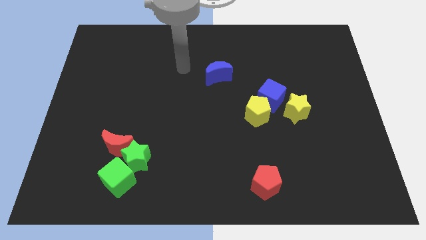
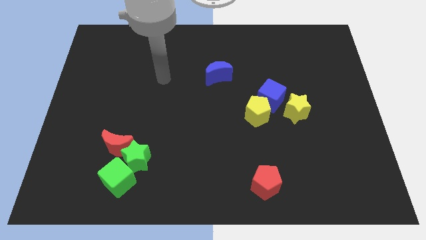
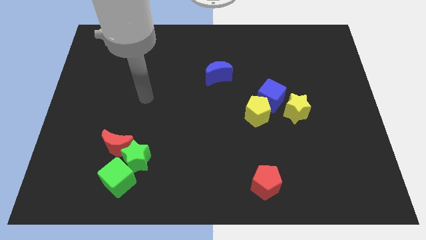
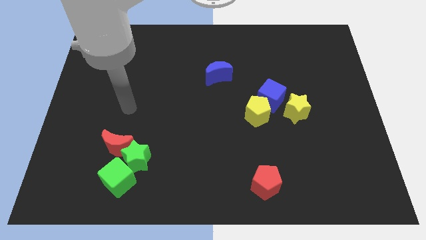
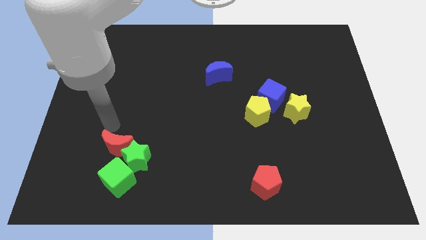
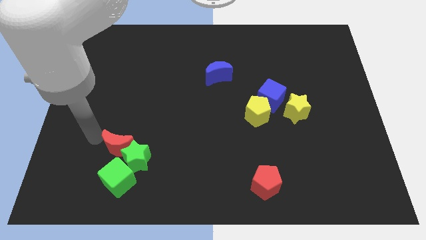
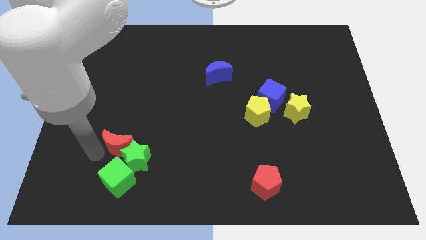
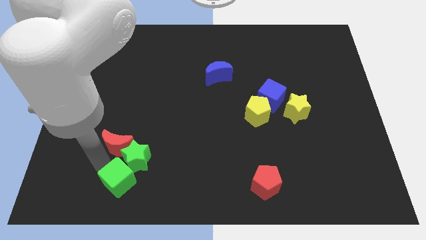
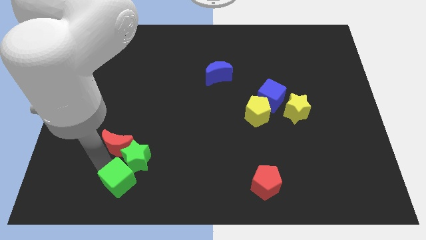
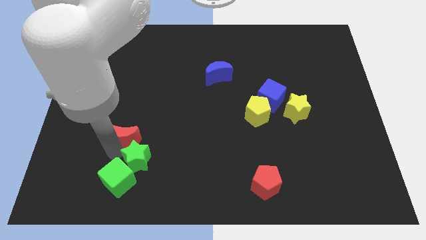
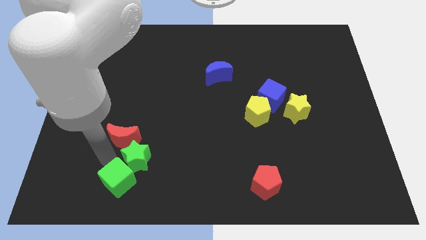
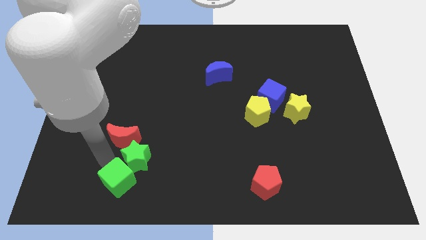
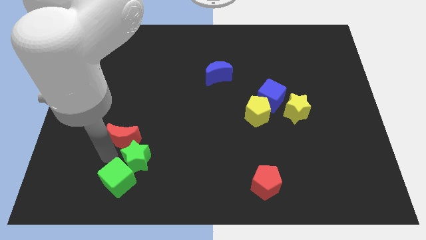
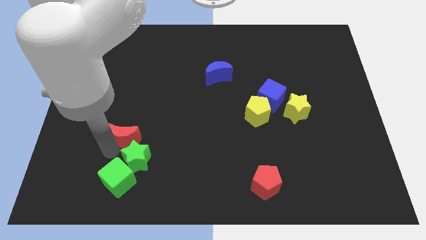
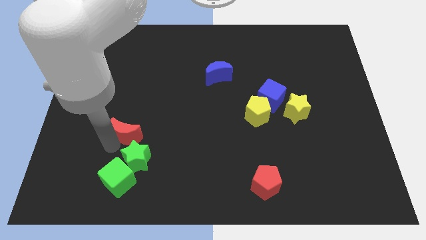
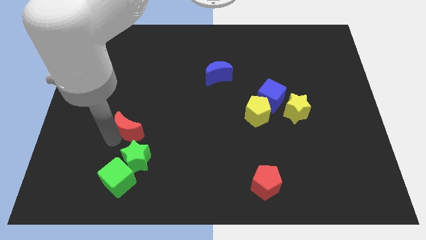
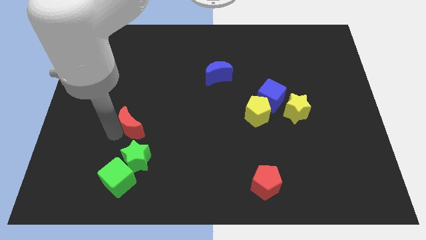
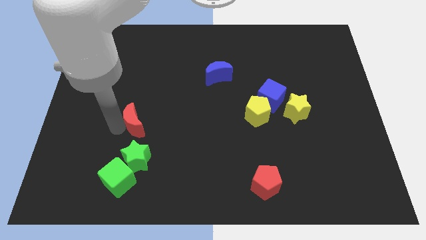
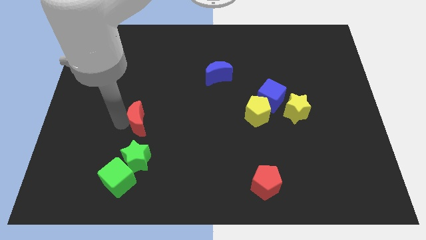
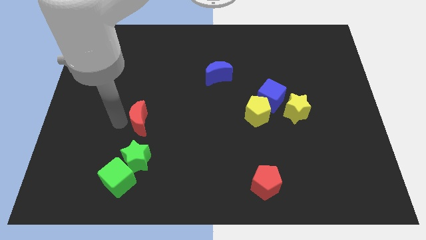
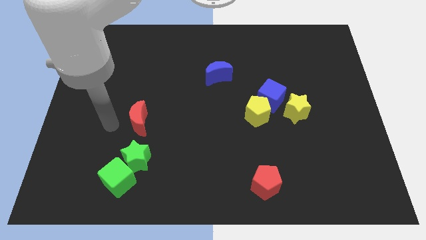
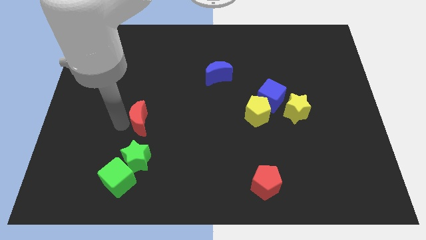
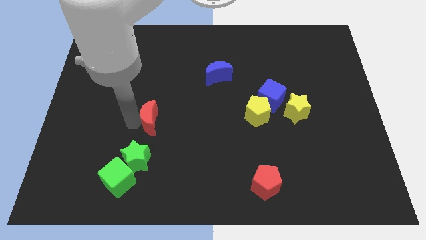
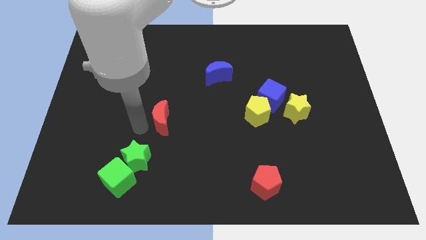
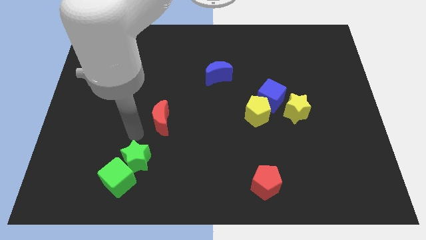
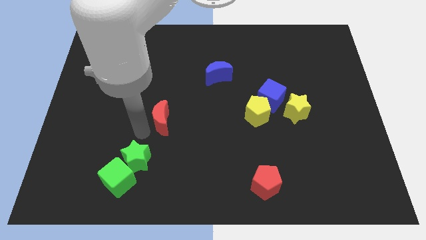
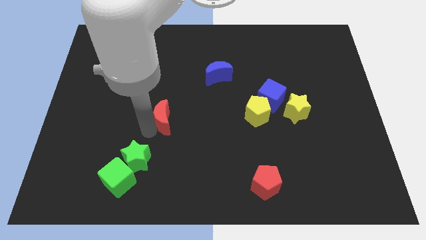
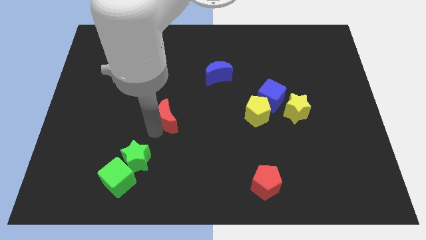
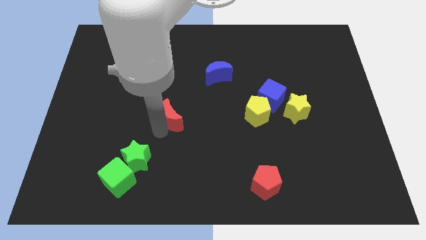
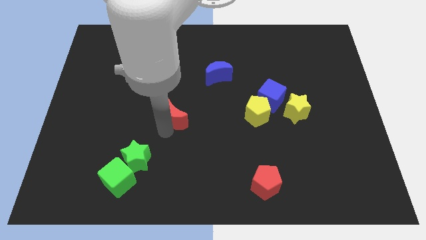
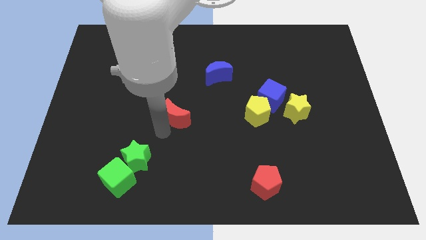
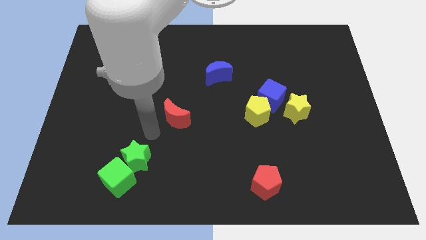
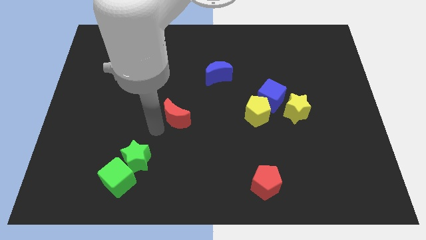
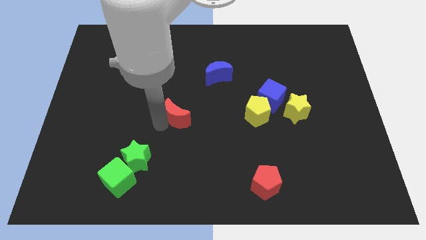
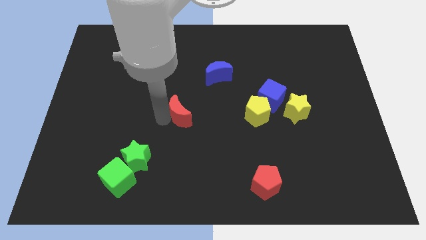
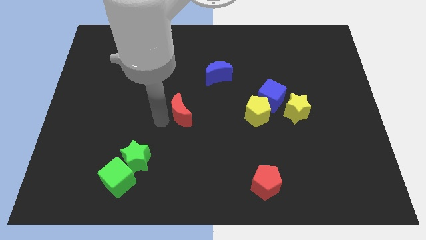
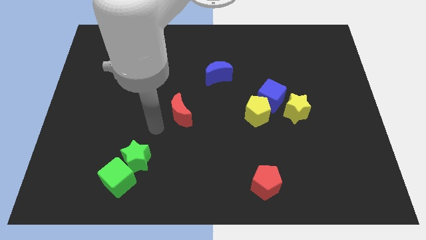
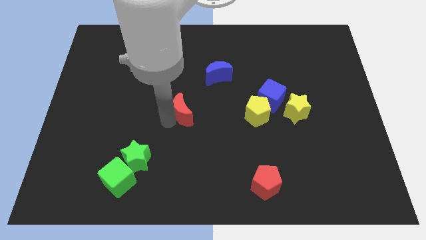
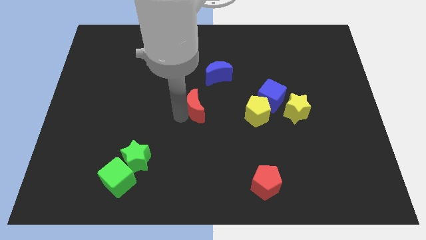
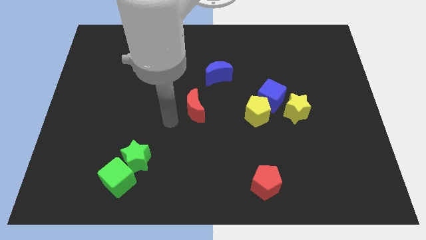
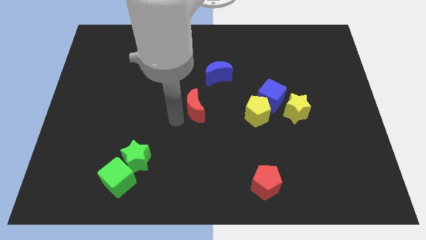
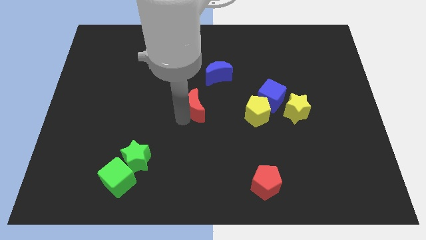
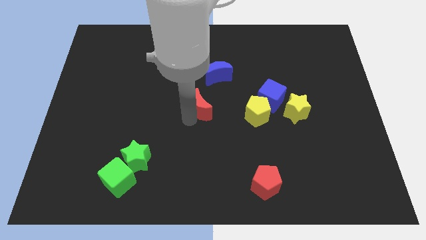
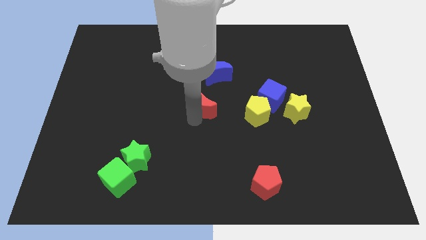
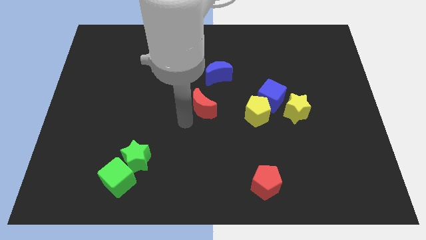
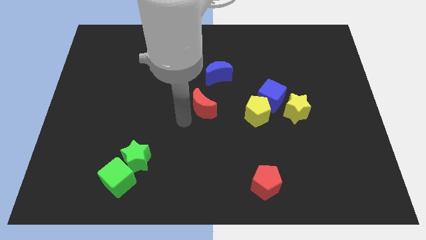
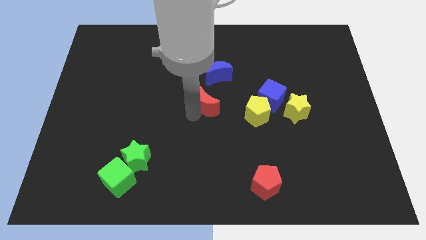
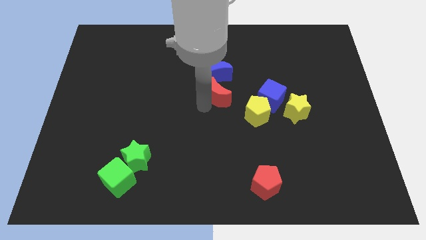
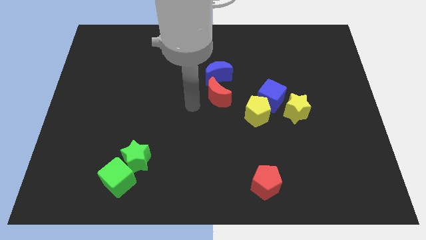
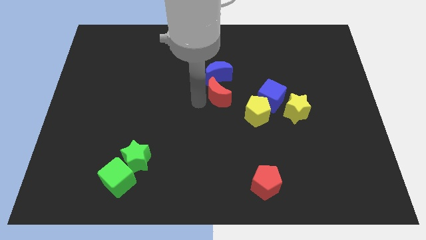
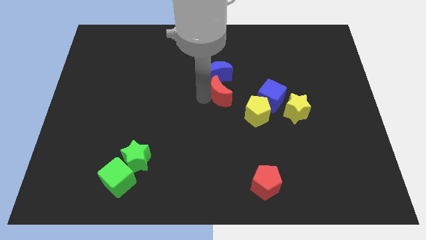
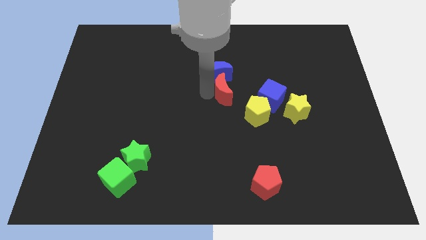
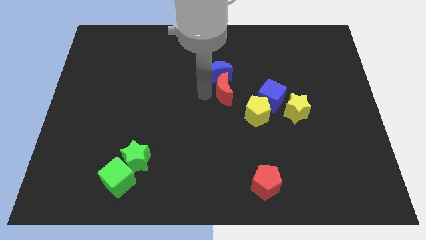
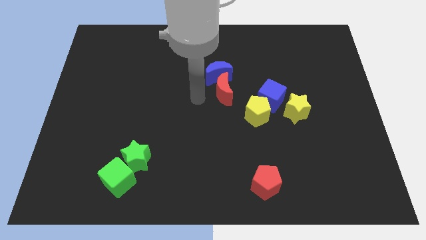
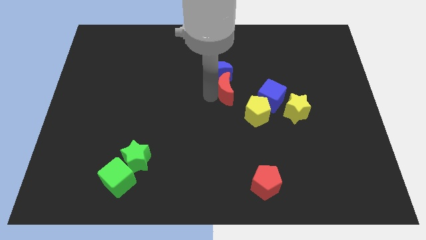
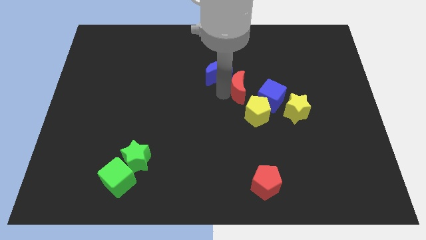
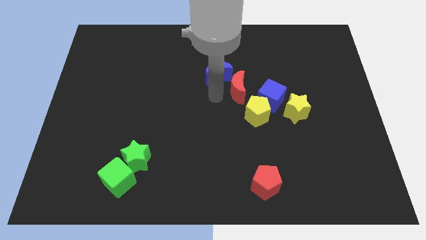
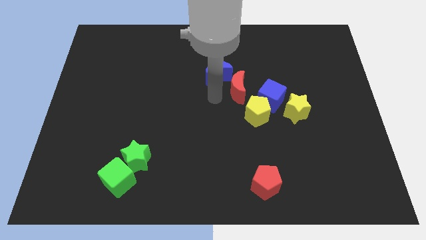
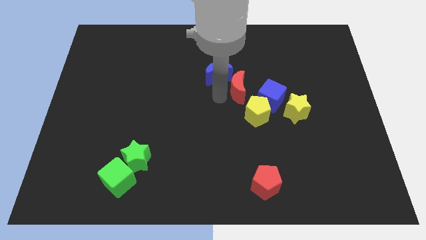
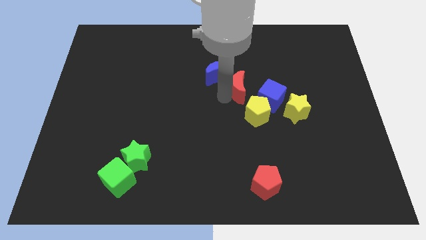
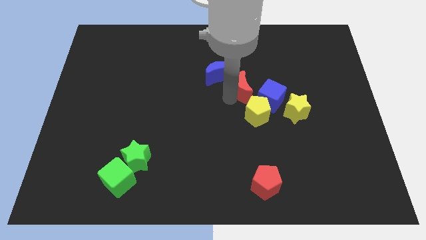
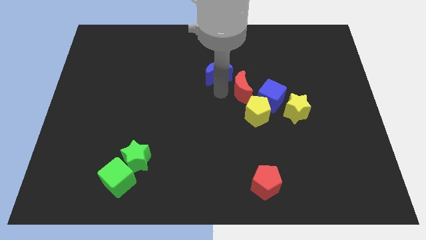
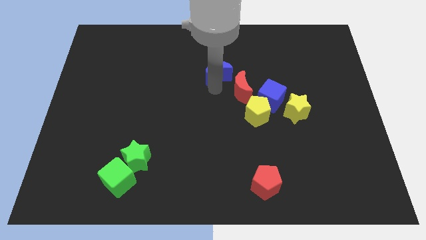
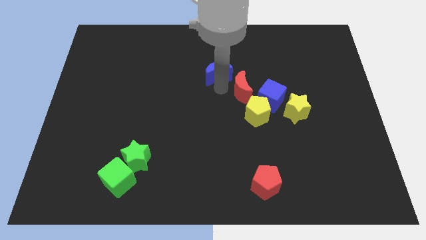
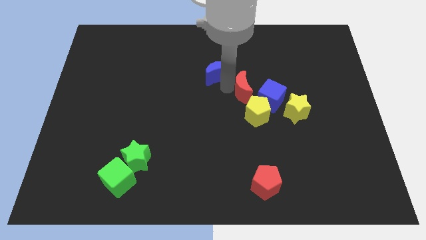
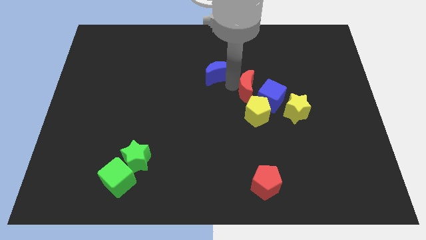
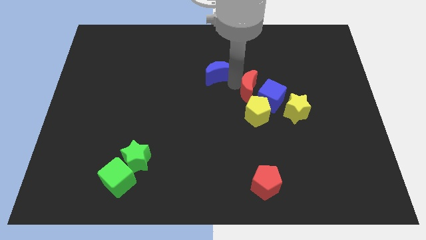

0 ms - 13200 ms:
move the red moon diagonally up and to the left of the yellow star

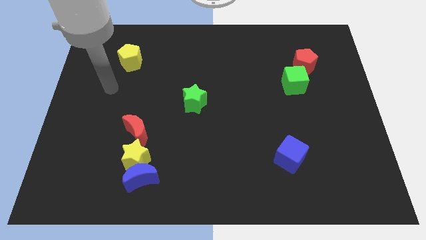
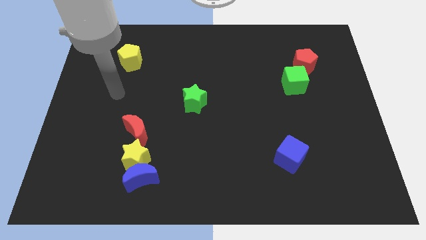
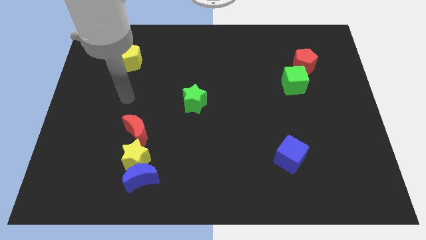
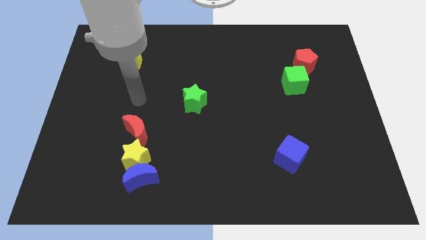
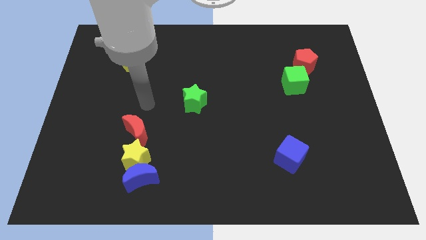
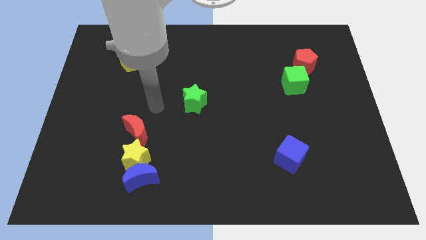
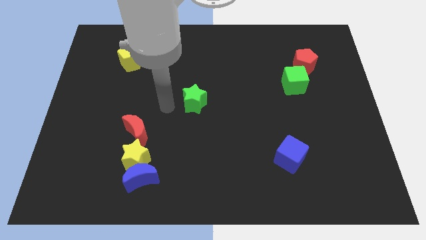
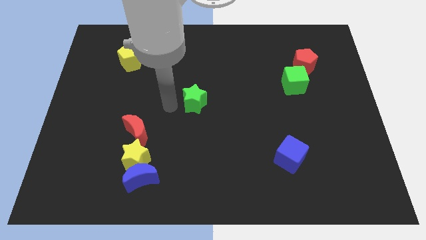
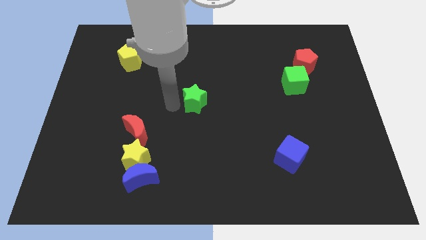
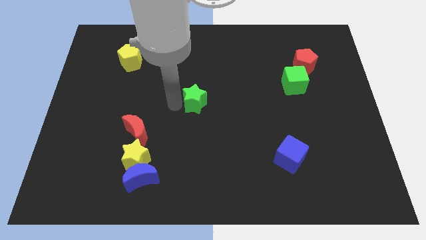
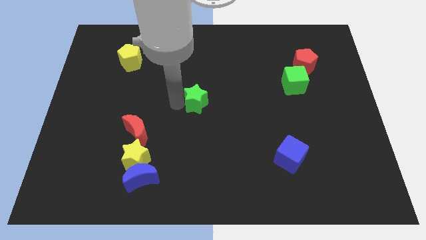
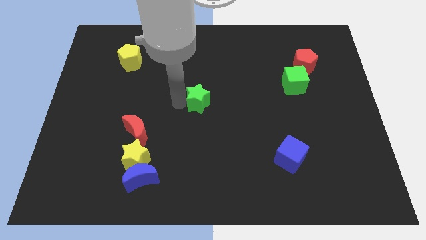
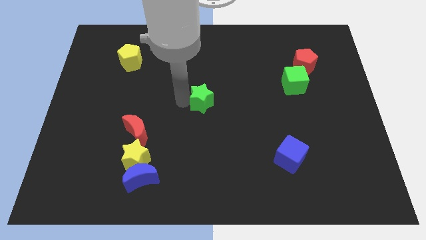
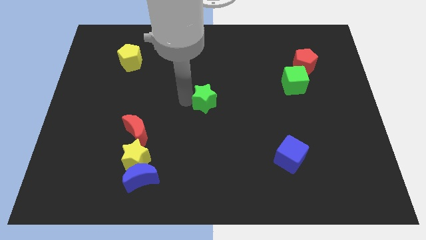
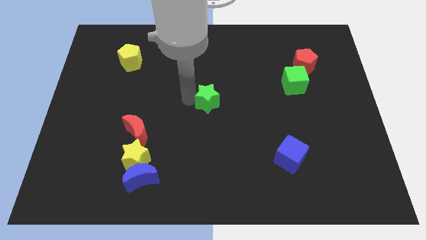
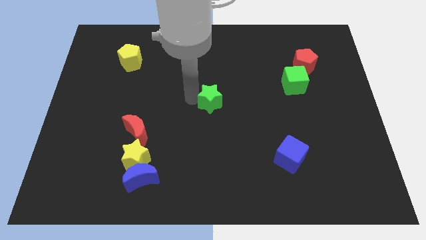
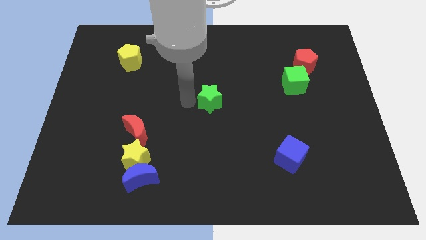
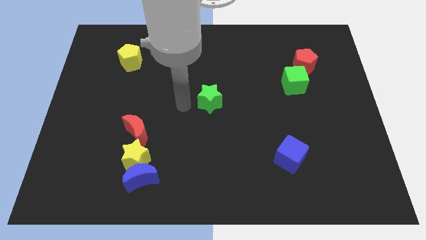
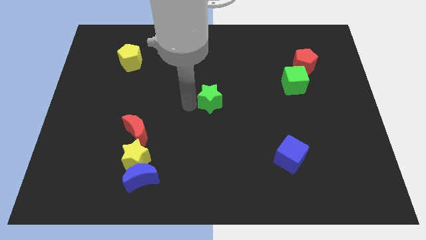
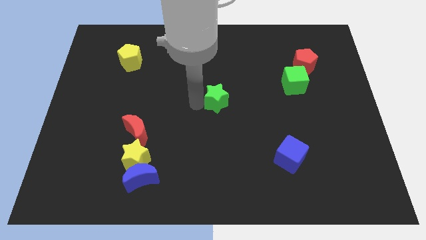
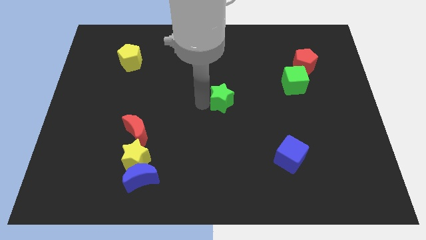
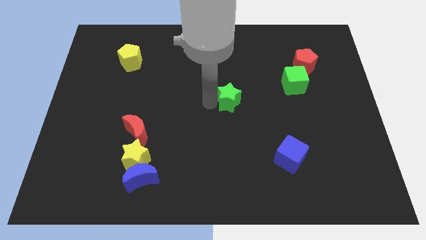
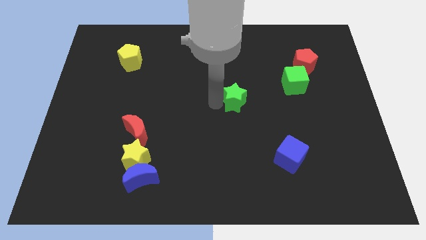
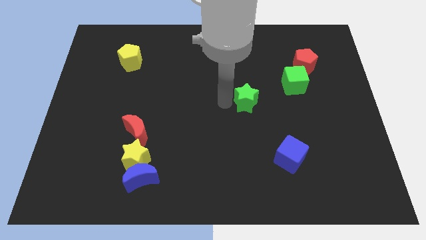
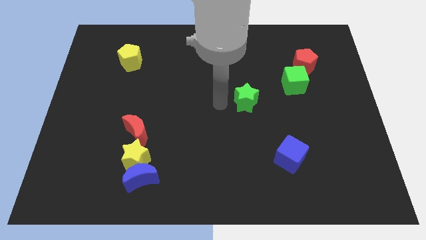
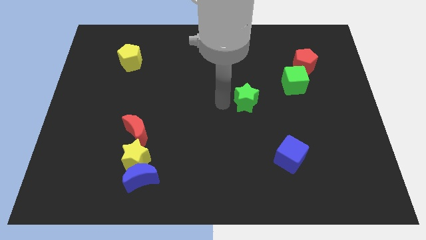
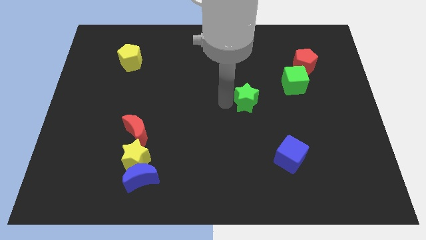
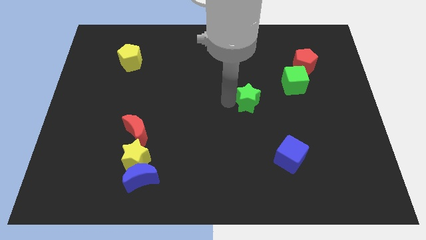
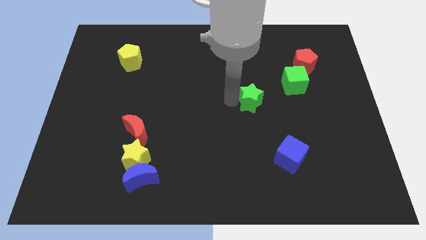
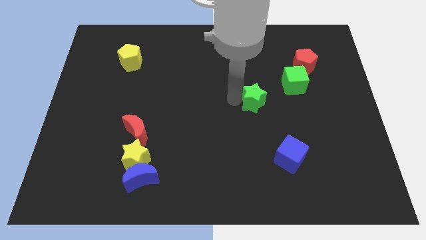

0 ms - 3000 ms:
move the green star to the bottom left side of the green cube
